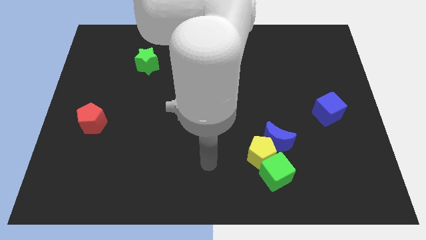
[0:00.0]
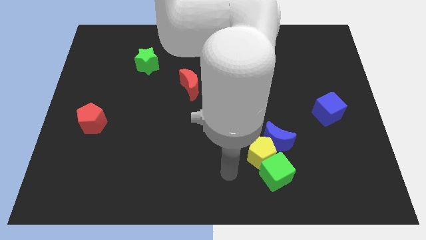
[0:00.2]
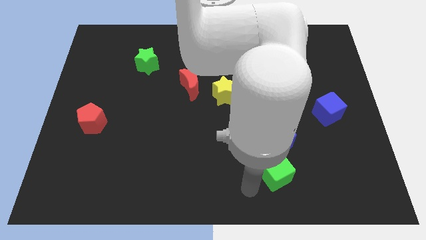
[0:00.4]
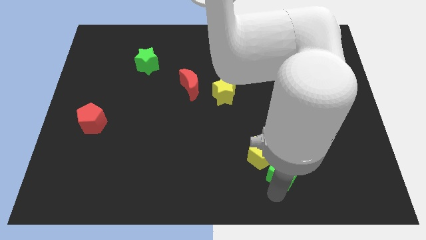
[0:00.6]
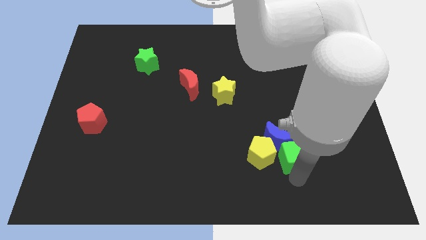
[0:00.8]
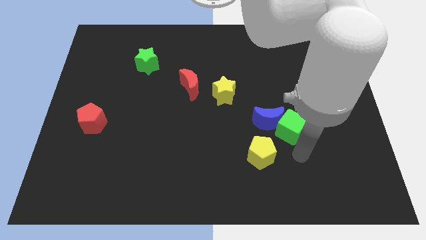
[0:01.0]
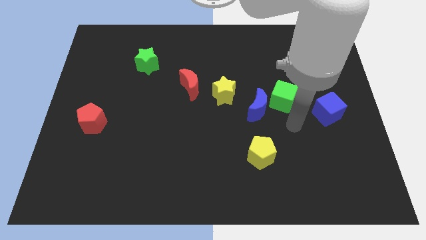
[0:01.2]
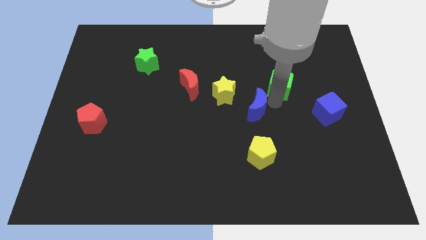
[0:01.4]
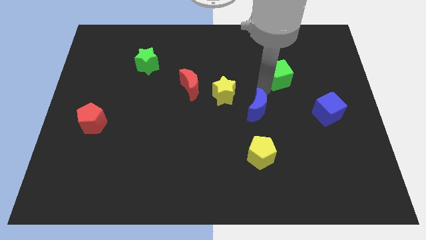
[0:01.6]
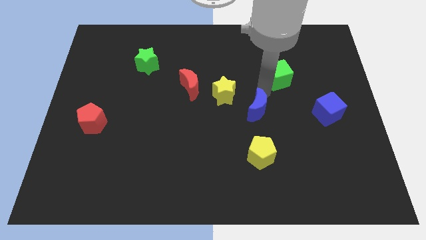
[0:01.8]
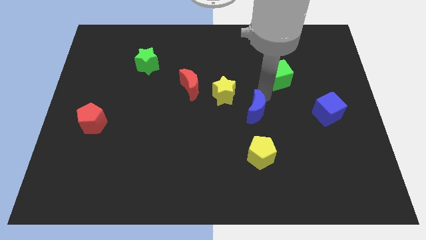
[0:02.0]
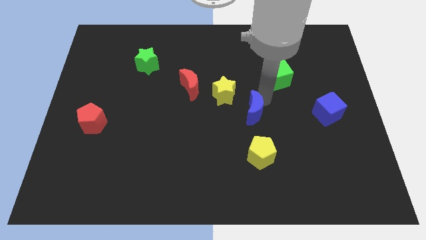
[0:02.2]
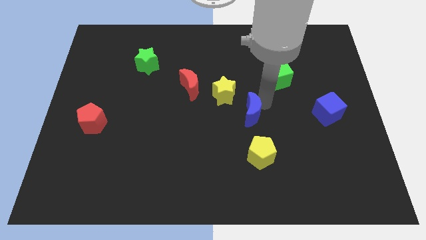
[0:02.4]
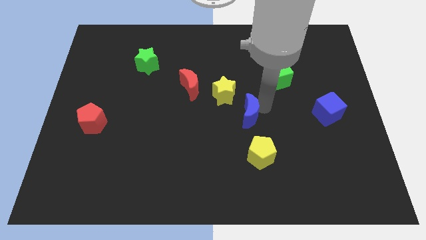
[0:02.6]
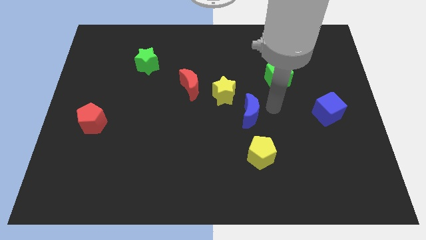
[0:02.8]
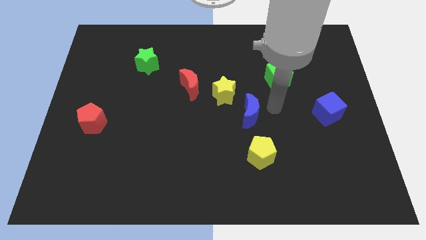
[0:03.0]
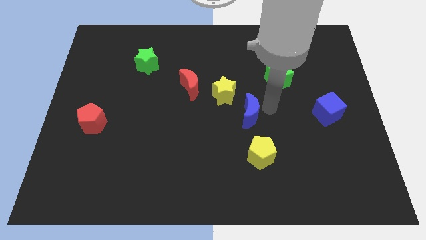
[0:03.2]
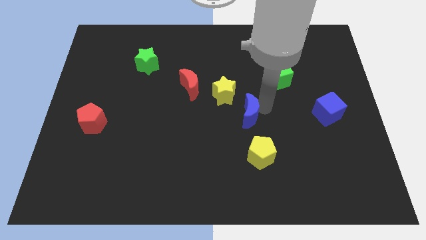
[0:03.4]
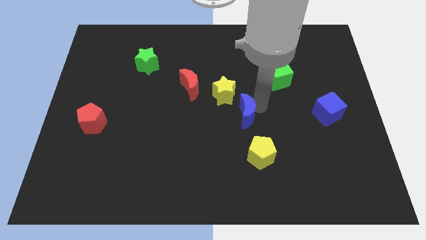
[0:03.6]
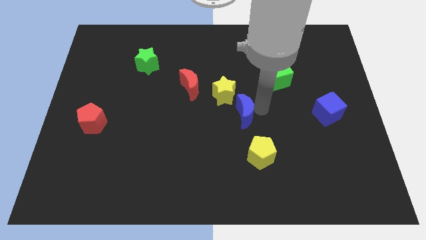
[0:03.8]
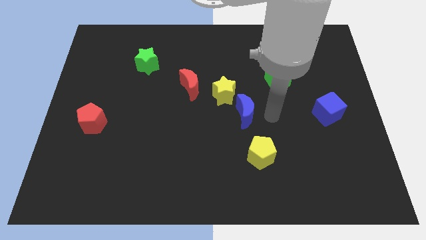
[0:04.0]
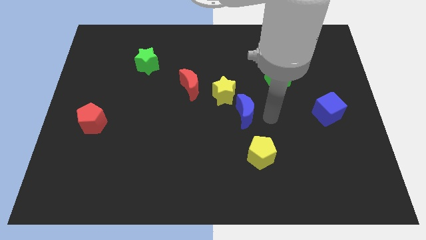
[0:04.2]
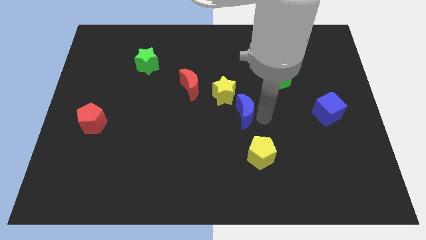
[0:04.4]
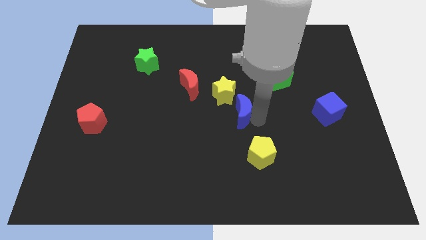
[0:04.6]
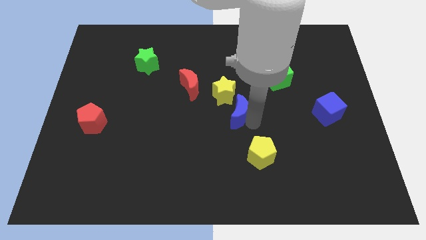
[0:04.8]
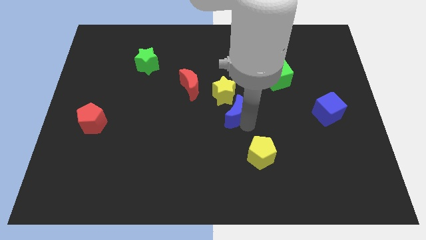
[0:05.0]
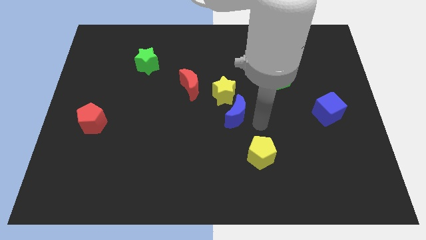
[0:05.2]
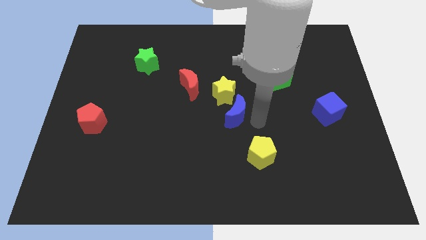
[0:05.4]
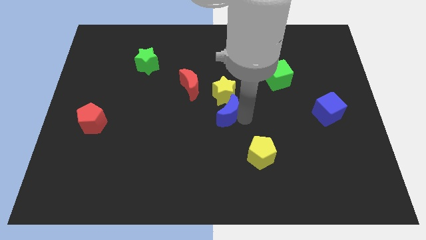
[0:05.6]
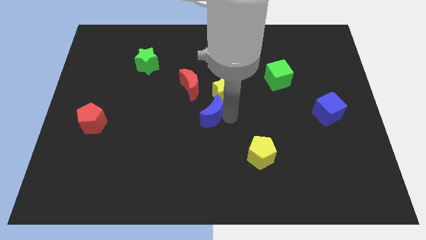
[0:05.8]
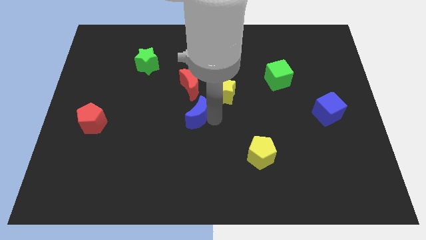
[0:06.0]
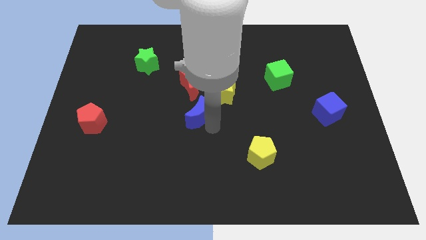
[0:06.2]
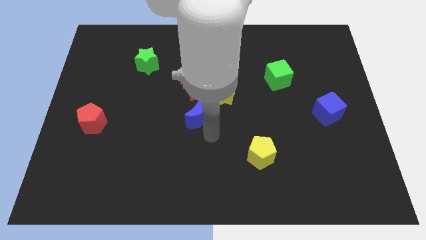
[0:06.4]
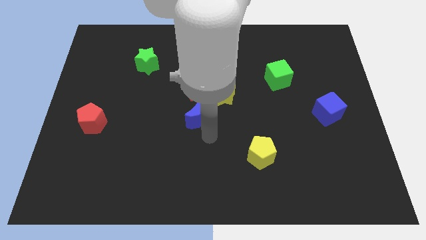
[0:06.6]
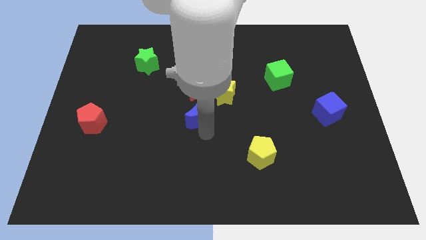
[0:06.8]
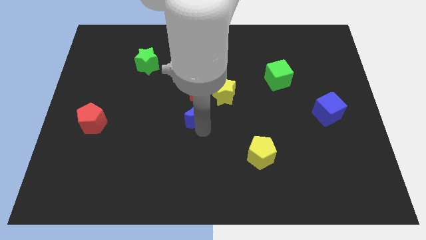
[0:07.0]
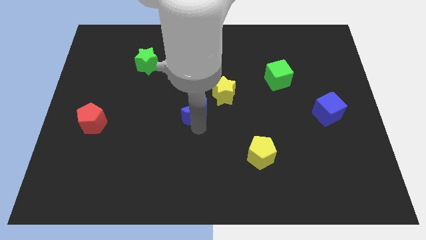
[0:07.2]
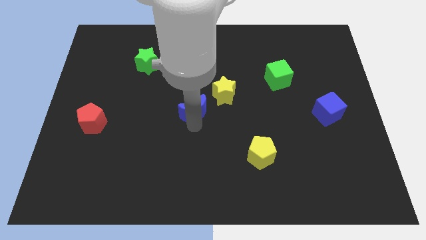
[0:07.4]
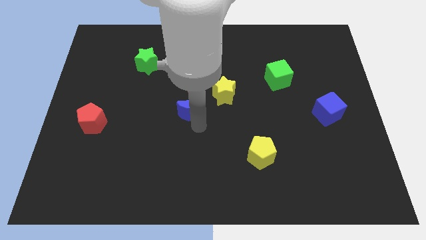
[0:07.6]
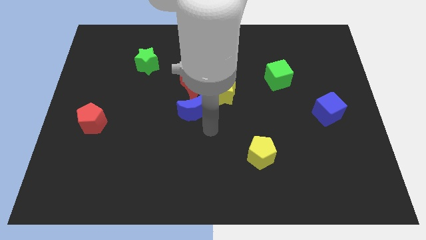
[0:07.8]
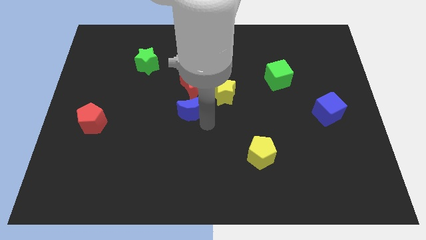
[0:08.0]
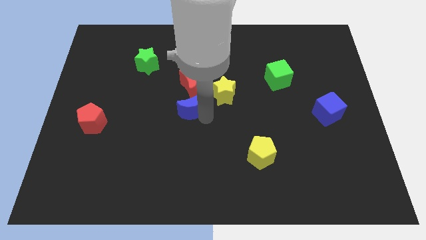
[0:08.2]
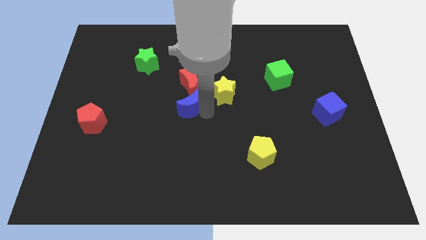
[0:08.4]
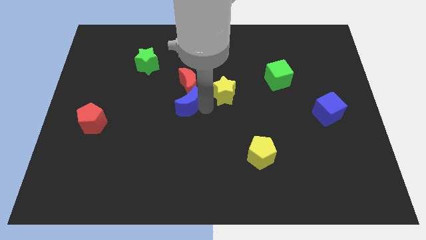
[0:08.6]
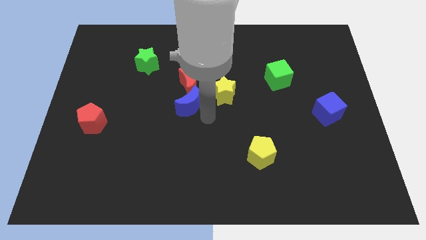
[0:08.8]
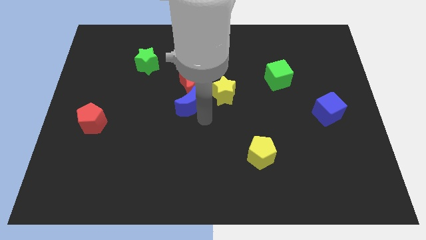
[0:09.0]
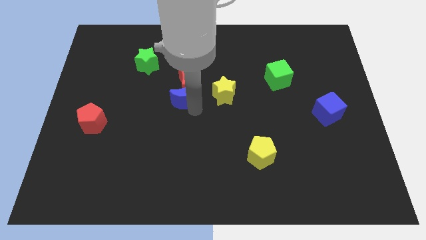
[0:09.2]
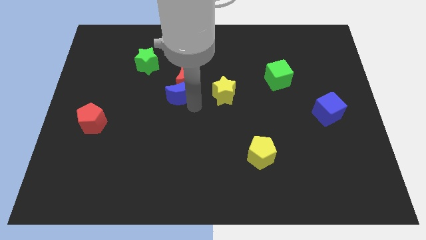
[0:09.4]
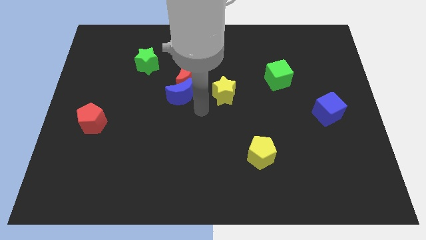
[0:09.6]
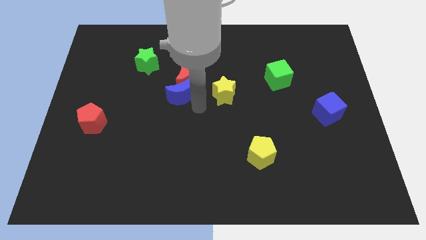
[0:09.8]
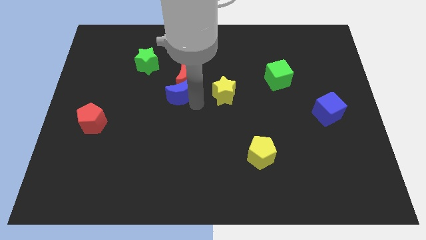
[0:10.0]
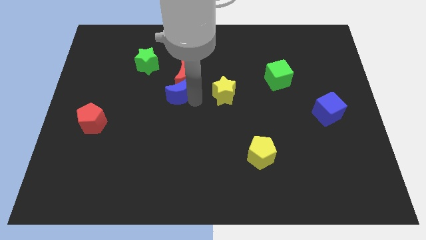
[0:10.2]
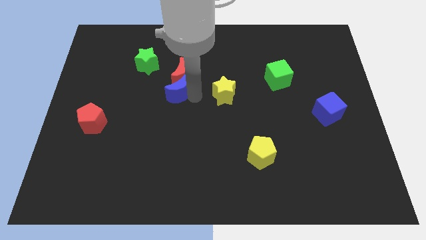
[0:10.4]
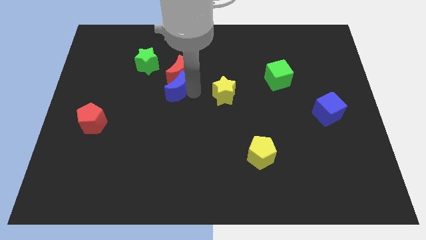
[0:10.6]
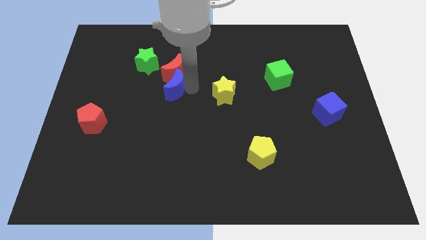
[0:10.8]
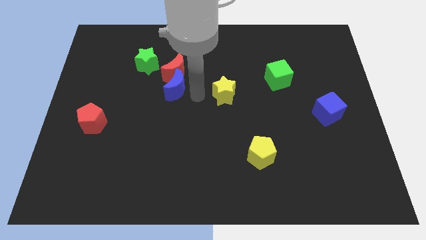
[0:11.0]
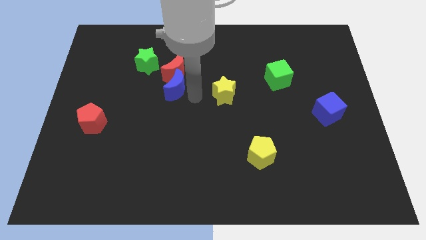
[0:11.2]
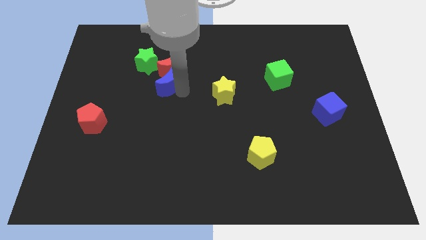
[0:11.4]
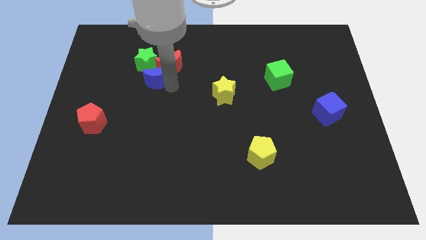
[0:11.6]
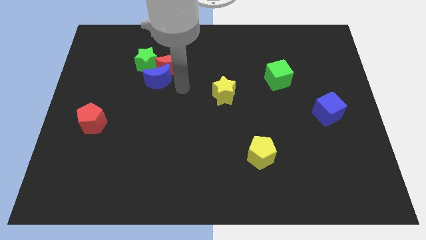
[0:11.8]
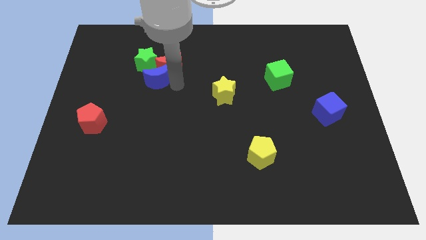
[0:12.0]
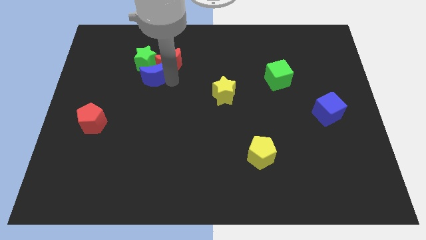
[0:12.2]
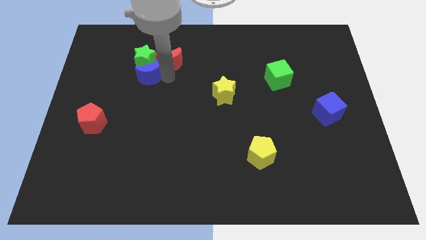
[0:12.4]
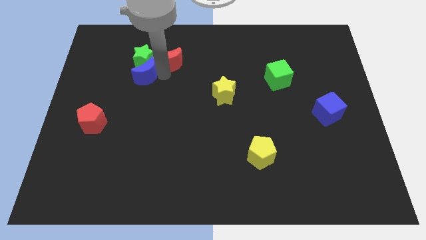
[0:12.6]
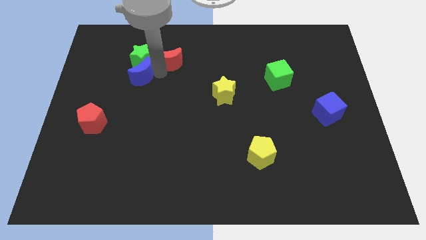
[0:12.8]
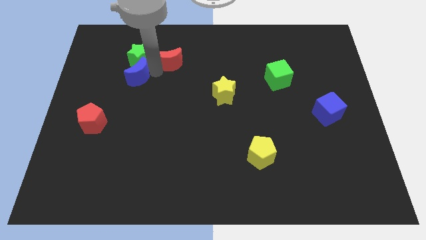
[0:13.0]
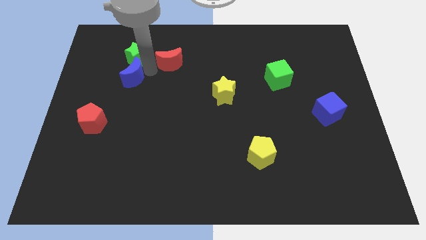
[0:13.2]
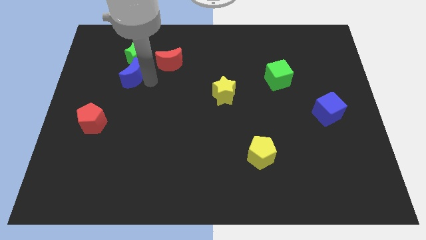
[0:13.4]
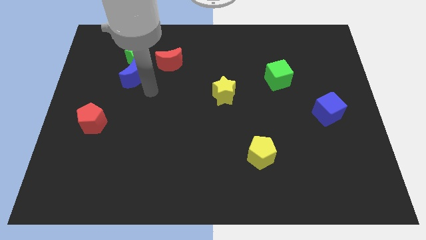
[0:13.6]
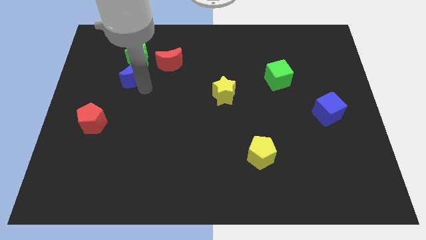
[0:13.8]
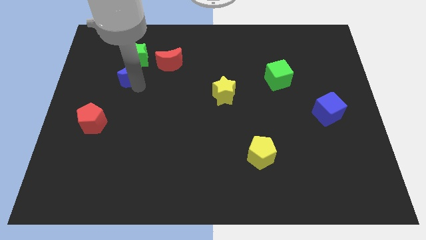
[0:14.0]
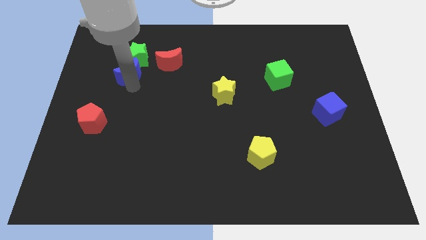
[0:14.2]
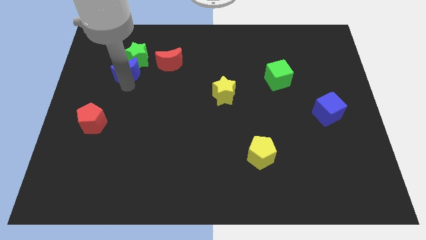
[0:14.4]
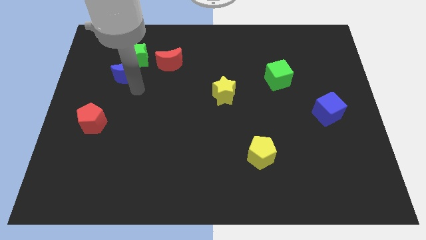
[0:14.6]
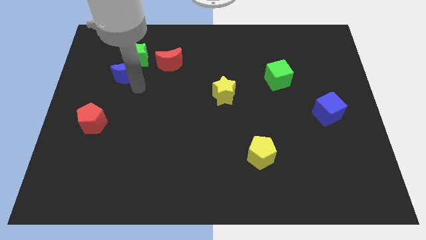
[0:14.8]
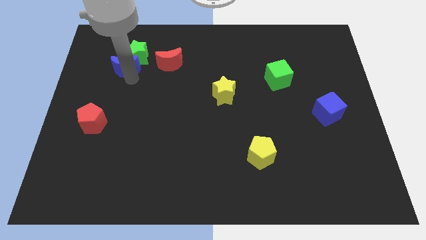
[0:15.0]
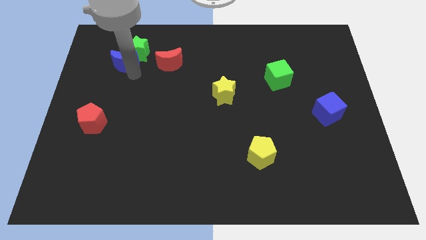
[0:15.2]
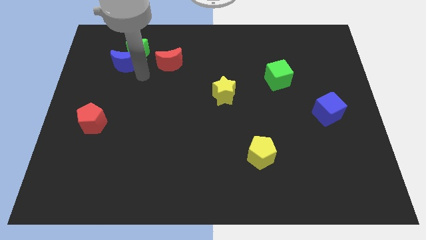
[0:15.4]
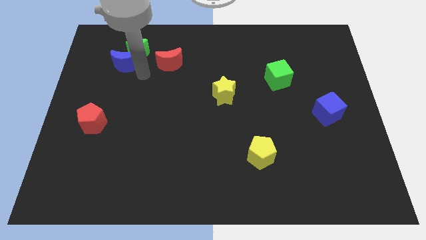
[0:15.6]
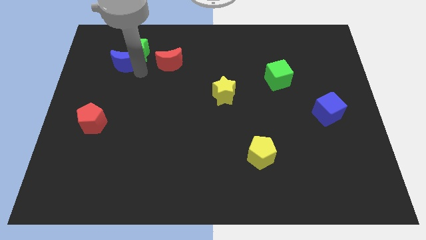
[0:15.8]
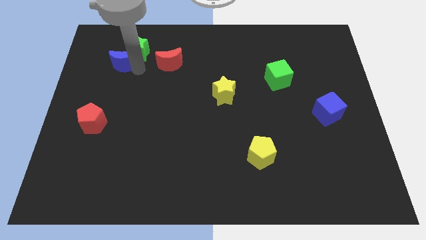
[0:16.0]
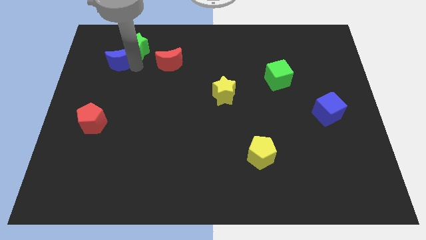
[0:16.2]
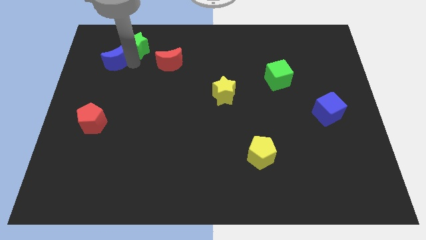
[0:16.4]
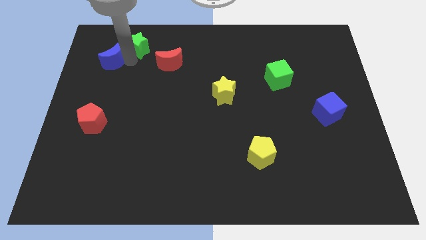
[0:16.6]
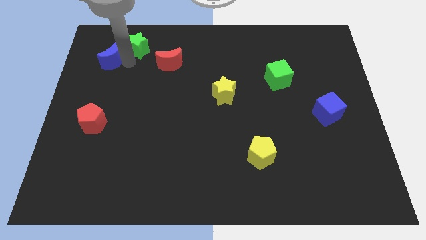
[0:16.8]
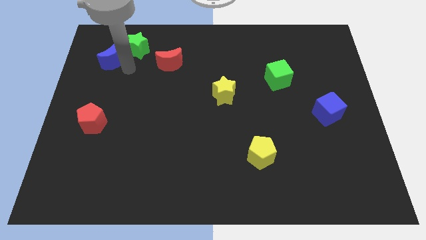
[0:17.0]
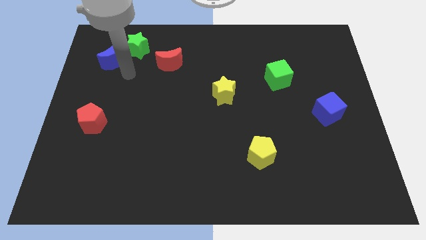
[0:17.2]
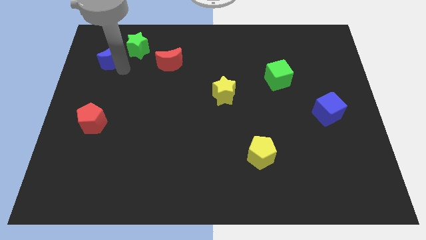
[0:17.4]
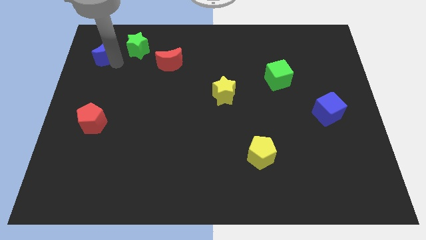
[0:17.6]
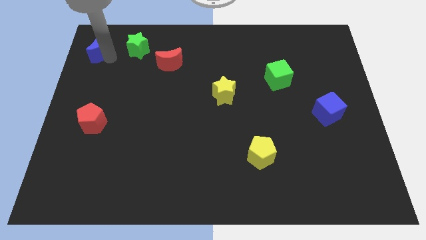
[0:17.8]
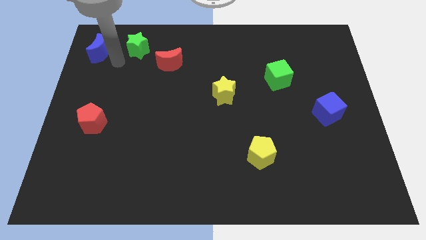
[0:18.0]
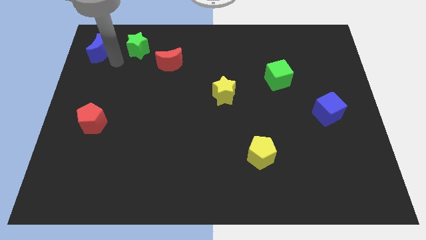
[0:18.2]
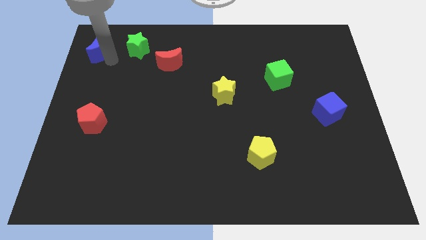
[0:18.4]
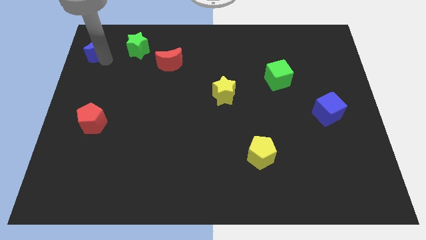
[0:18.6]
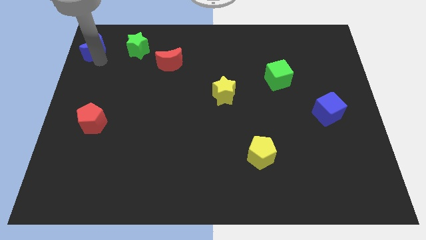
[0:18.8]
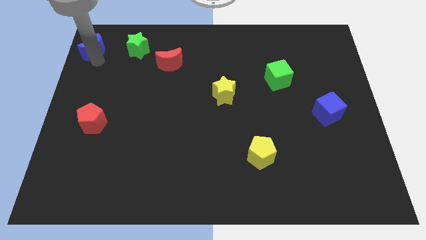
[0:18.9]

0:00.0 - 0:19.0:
slide the blue moon to the top left of the board
